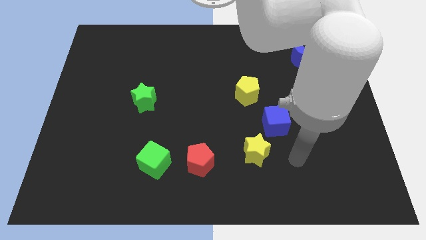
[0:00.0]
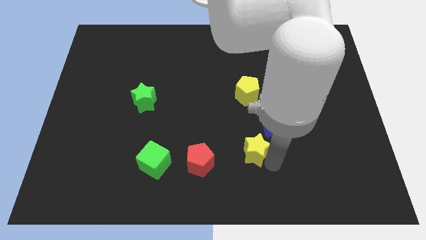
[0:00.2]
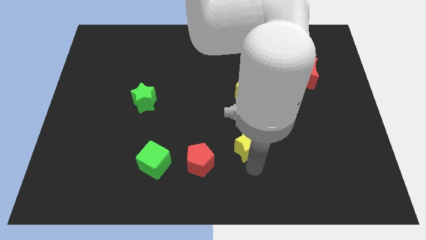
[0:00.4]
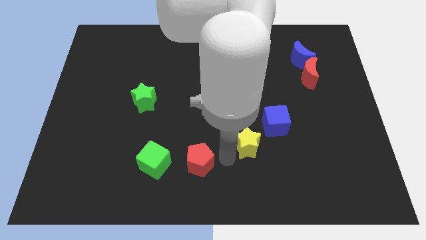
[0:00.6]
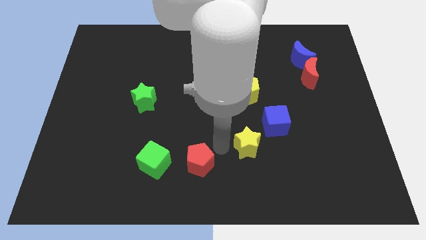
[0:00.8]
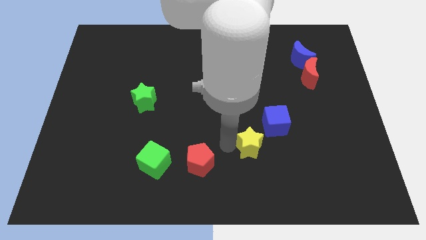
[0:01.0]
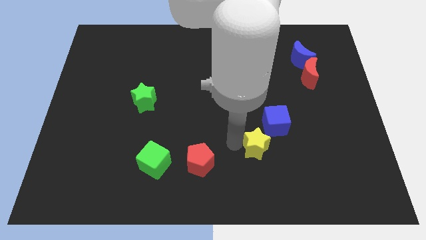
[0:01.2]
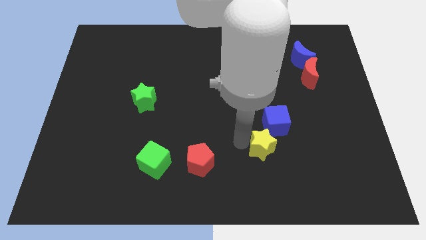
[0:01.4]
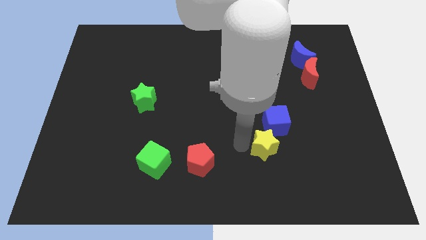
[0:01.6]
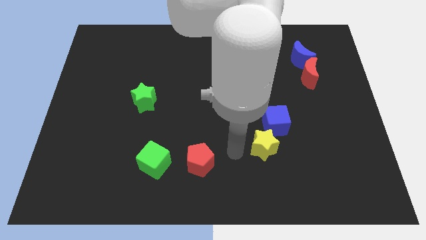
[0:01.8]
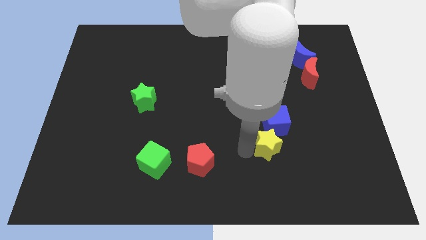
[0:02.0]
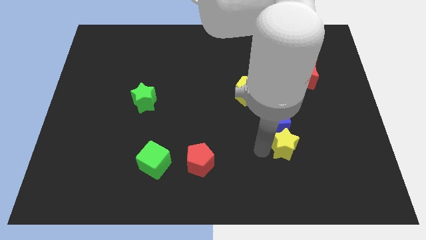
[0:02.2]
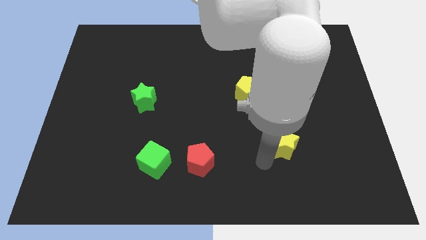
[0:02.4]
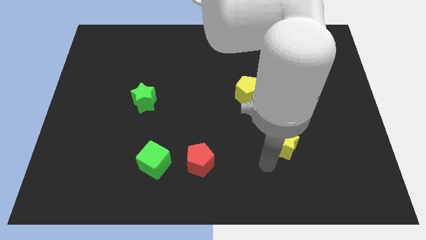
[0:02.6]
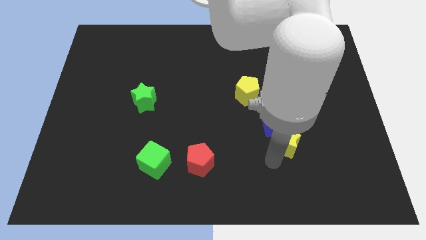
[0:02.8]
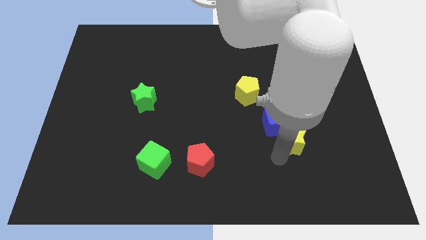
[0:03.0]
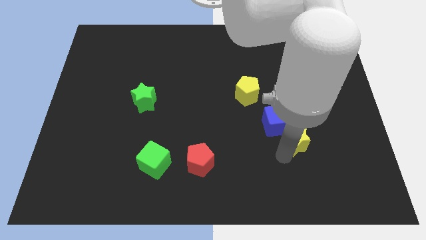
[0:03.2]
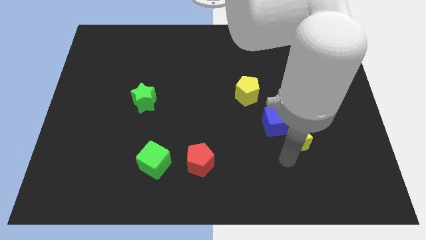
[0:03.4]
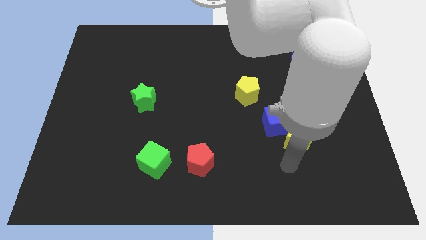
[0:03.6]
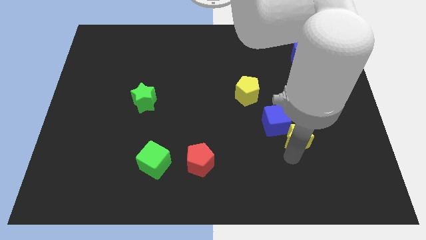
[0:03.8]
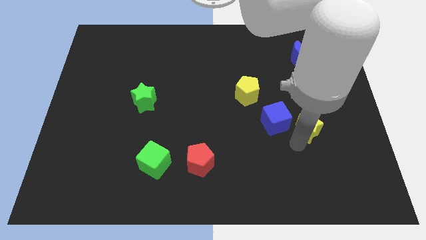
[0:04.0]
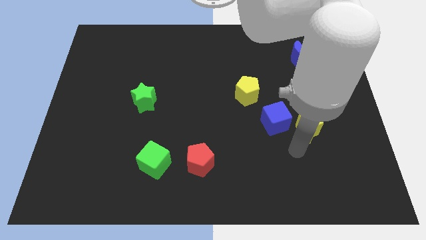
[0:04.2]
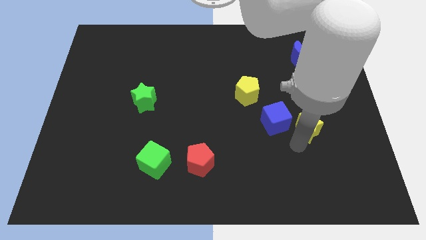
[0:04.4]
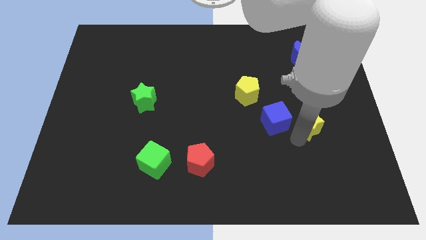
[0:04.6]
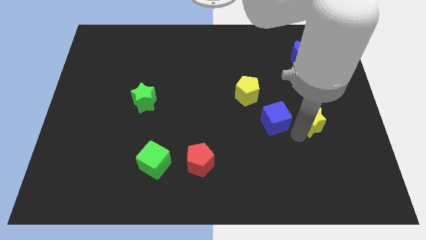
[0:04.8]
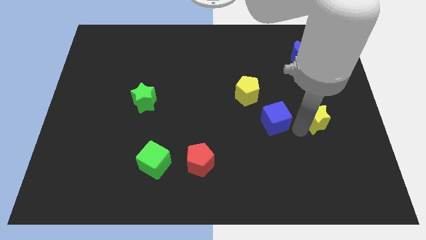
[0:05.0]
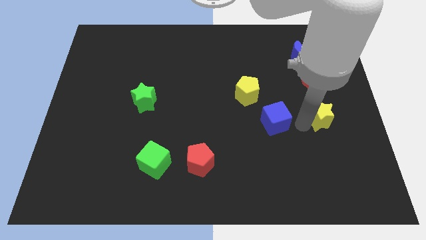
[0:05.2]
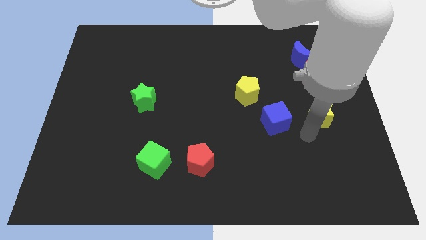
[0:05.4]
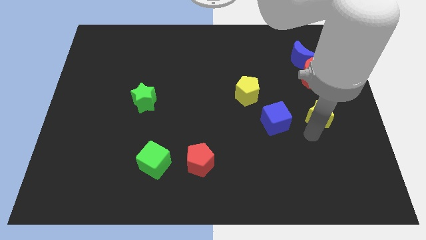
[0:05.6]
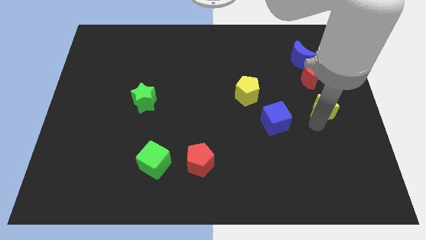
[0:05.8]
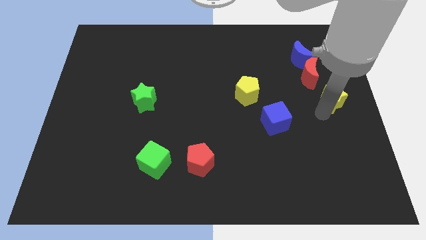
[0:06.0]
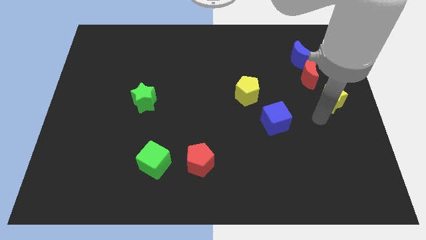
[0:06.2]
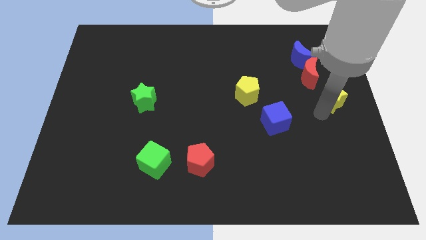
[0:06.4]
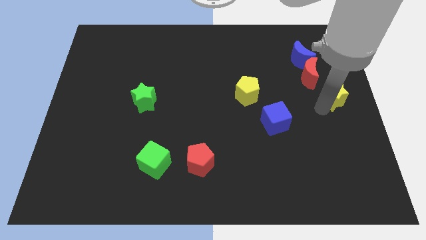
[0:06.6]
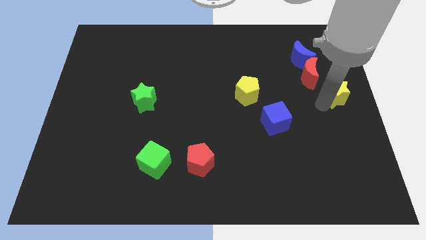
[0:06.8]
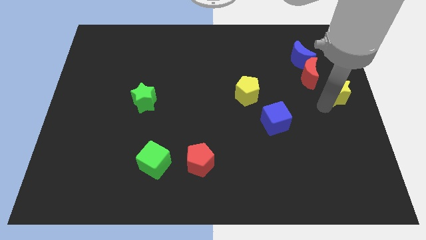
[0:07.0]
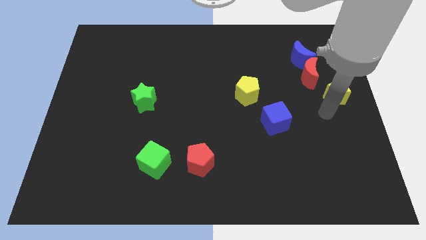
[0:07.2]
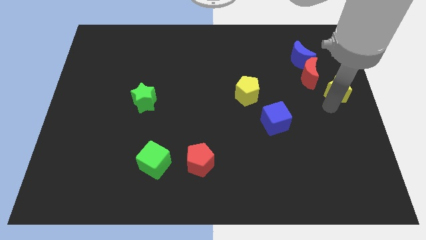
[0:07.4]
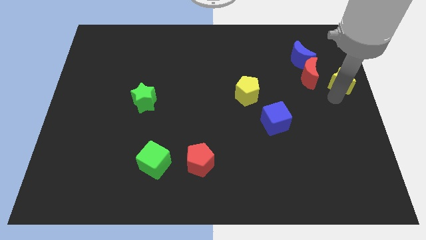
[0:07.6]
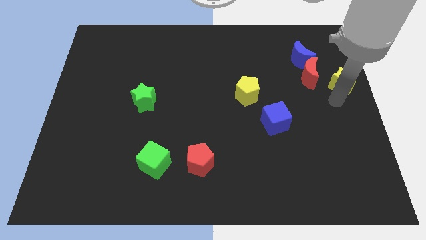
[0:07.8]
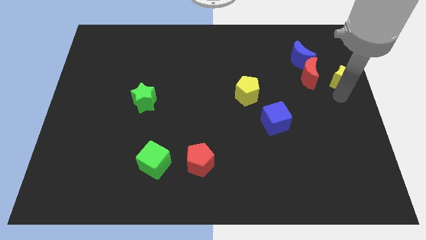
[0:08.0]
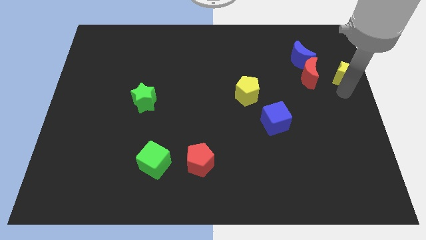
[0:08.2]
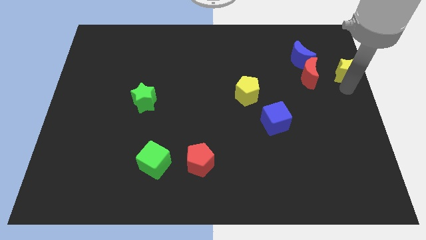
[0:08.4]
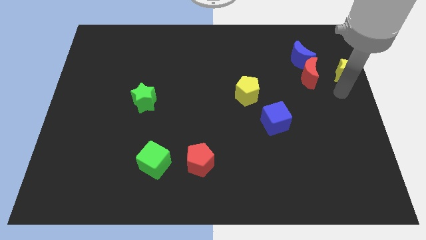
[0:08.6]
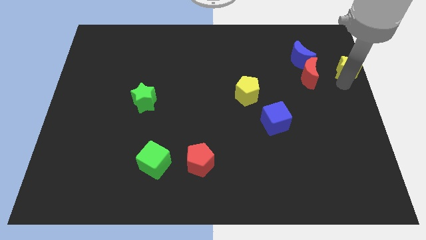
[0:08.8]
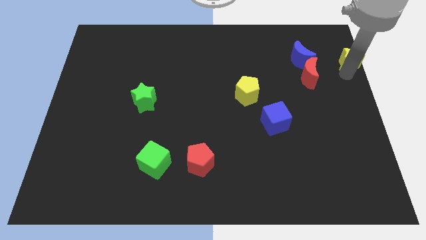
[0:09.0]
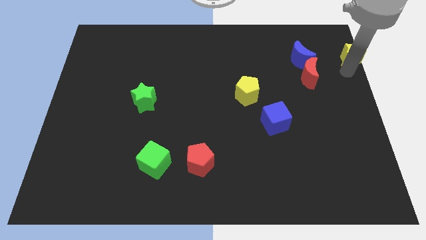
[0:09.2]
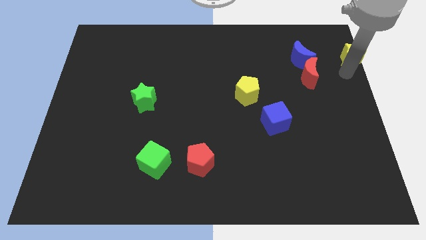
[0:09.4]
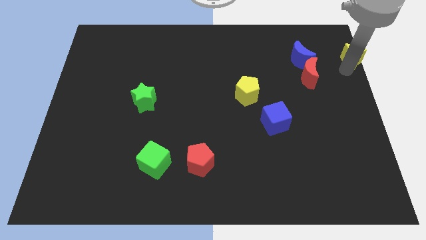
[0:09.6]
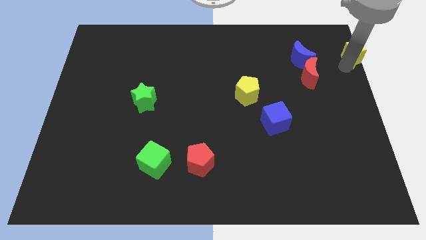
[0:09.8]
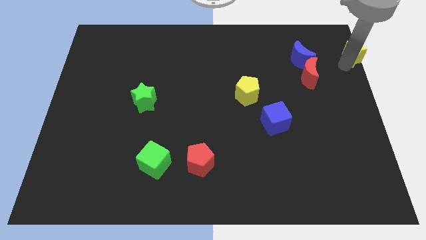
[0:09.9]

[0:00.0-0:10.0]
put the yellow star to the upper right corner

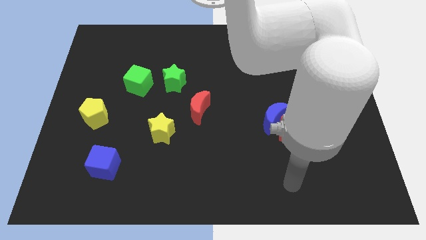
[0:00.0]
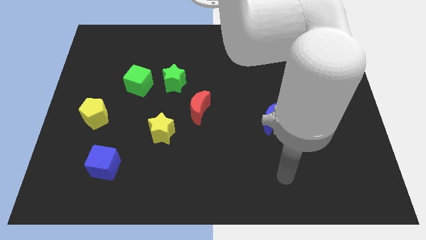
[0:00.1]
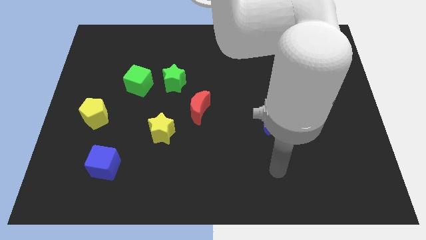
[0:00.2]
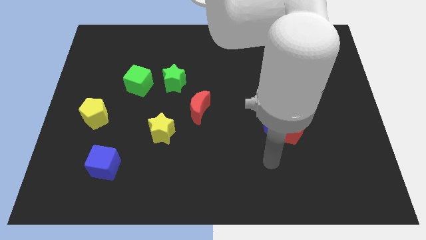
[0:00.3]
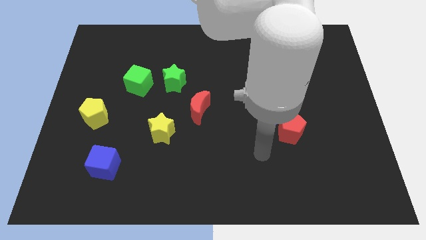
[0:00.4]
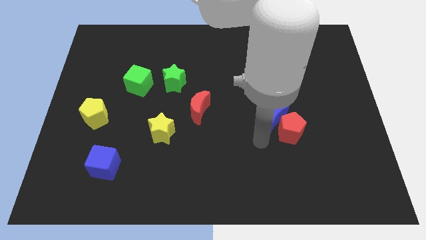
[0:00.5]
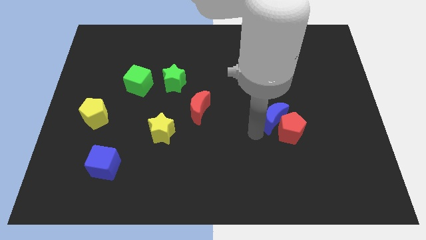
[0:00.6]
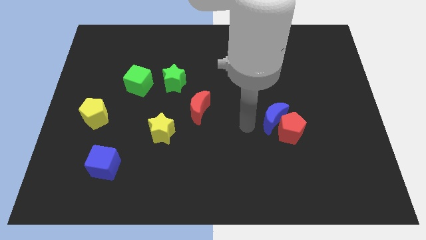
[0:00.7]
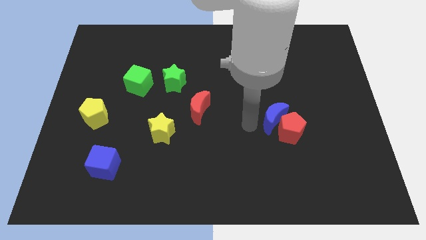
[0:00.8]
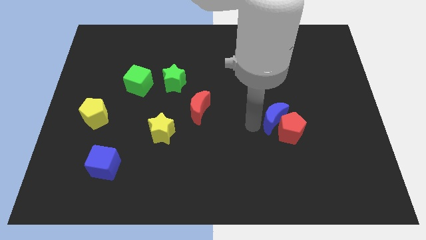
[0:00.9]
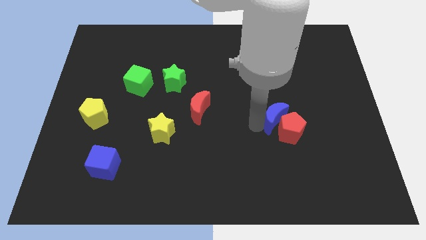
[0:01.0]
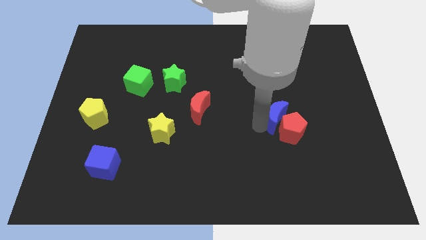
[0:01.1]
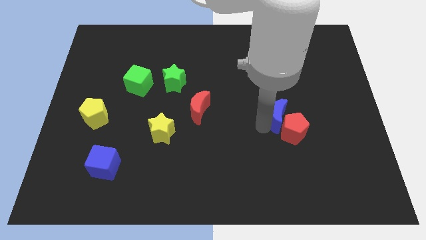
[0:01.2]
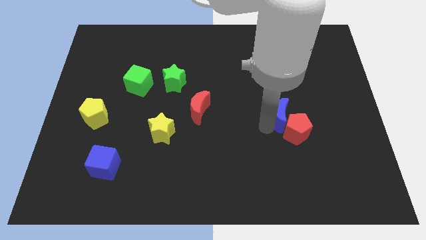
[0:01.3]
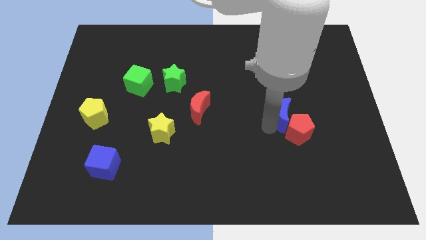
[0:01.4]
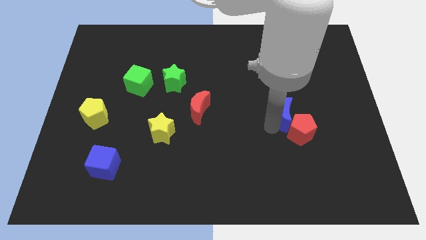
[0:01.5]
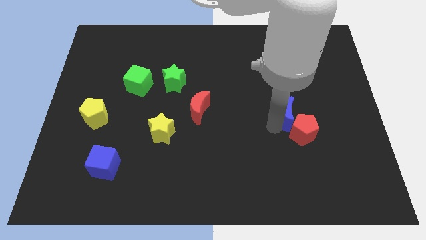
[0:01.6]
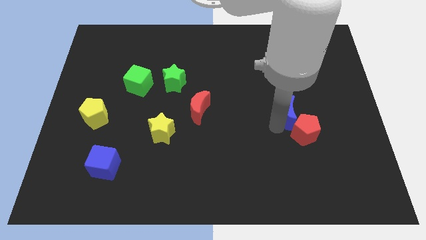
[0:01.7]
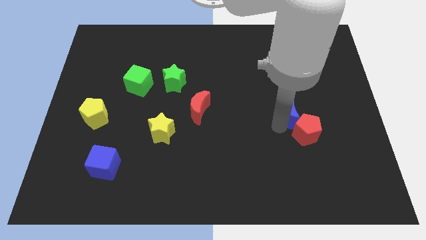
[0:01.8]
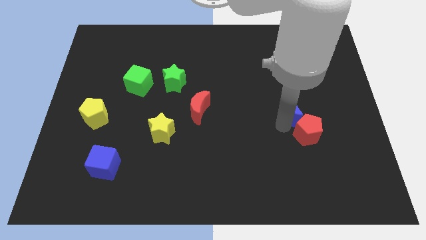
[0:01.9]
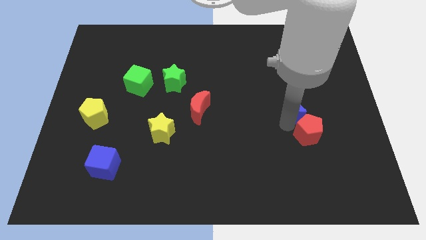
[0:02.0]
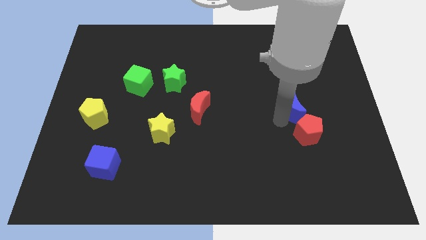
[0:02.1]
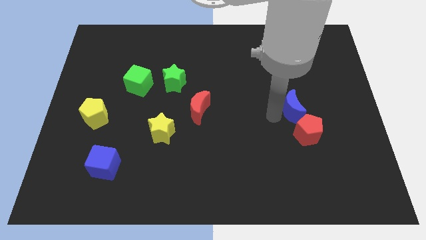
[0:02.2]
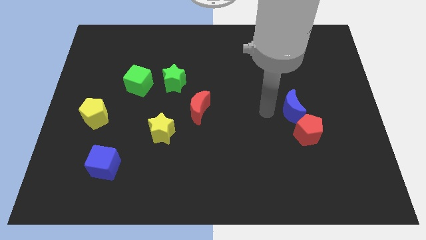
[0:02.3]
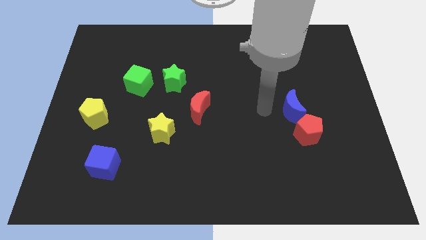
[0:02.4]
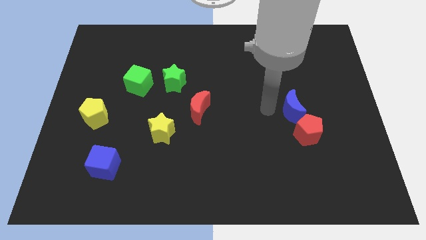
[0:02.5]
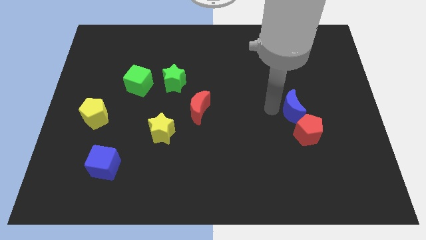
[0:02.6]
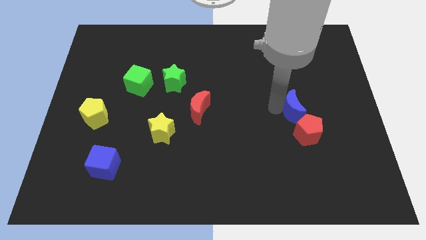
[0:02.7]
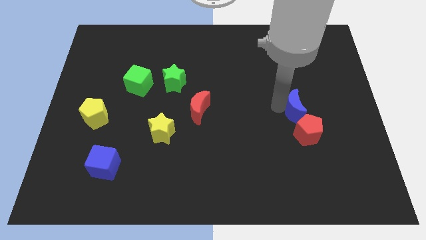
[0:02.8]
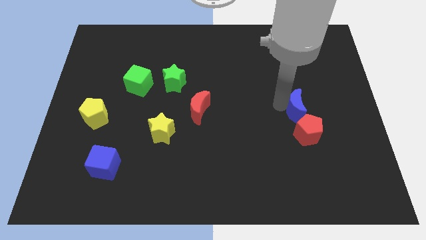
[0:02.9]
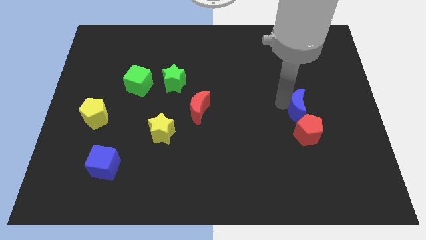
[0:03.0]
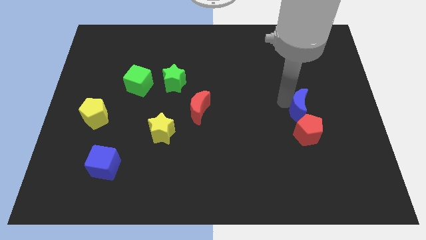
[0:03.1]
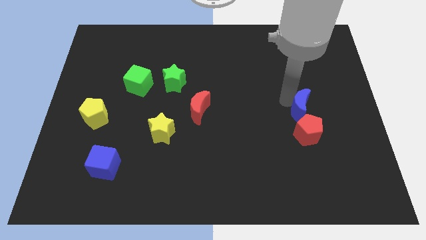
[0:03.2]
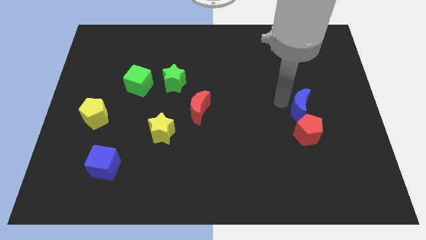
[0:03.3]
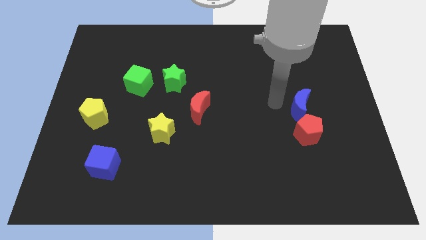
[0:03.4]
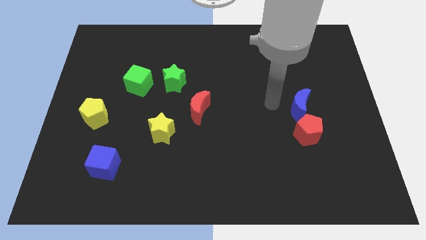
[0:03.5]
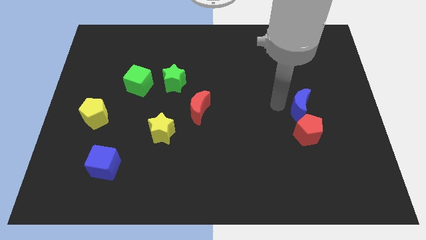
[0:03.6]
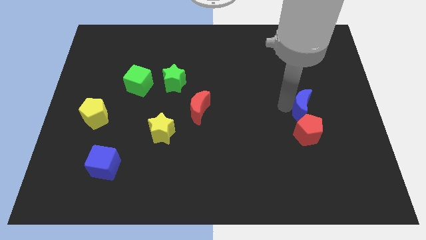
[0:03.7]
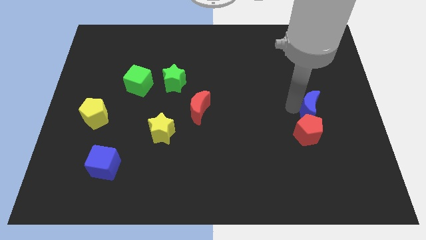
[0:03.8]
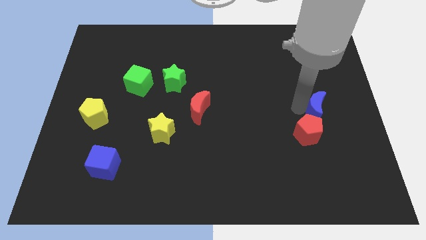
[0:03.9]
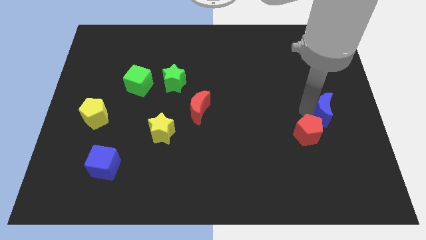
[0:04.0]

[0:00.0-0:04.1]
put the blue moon to the right side of the board
